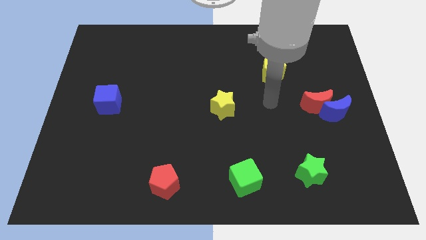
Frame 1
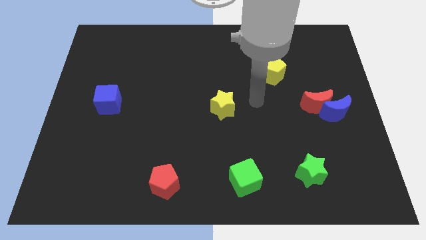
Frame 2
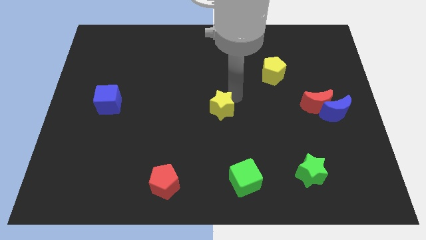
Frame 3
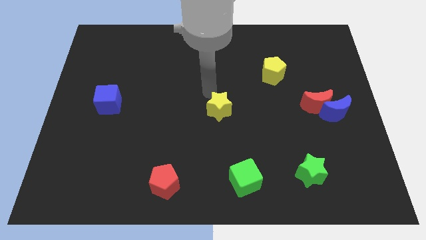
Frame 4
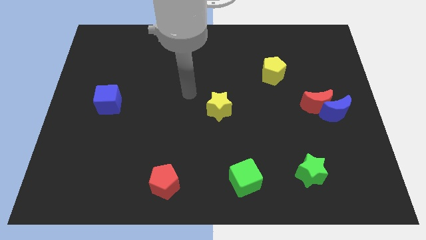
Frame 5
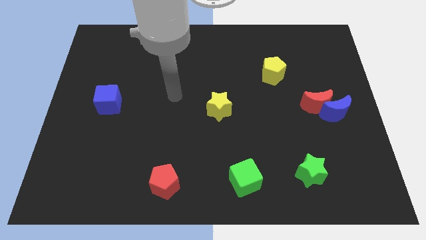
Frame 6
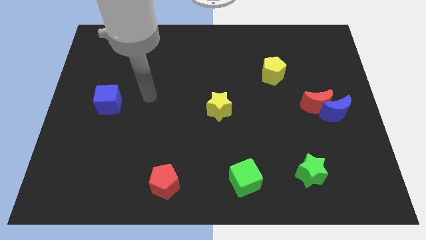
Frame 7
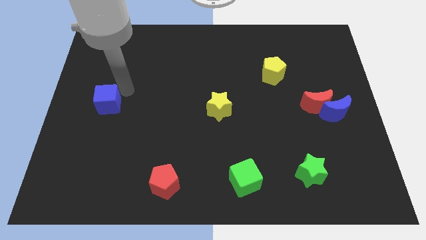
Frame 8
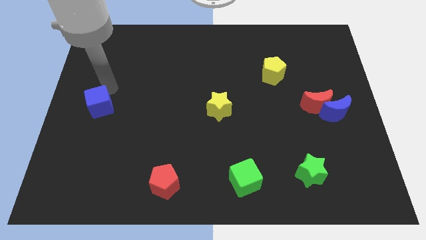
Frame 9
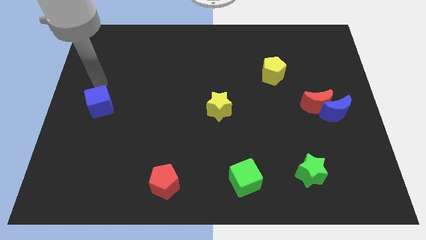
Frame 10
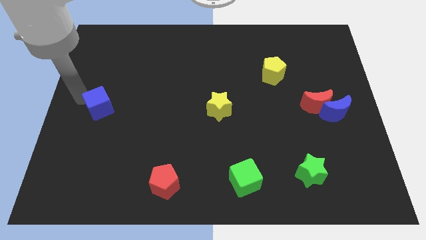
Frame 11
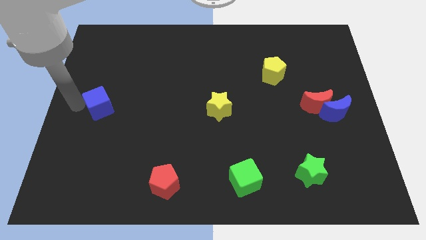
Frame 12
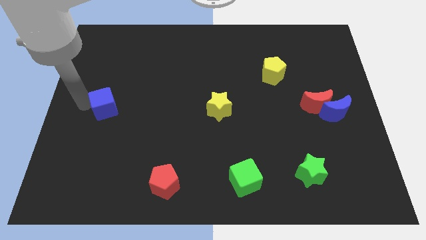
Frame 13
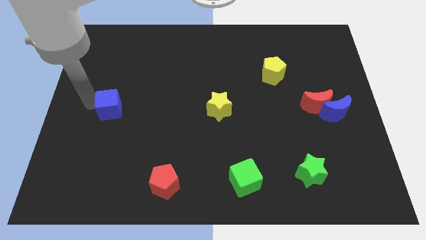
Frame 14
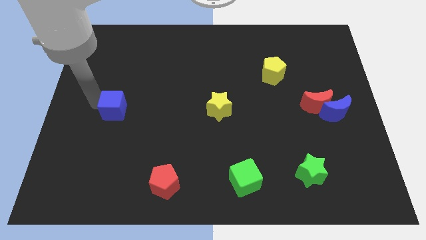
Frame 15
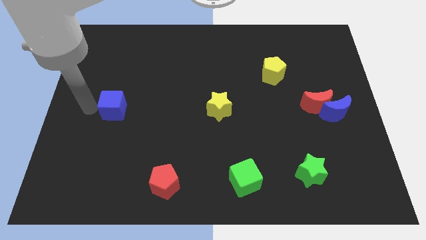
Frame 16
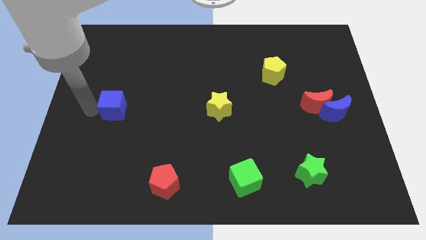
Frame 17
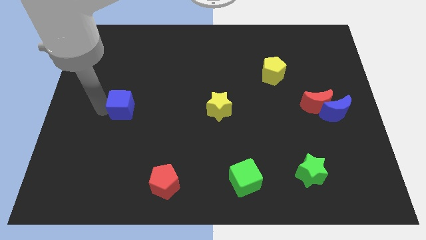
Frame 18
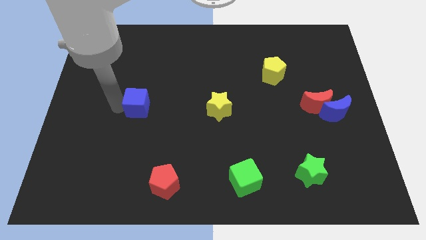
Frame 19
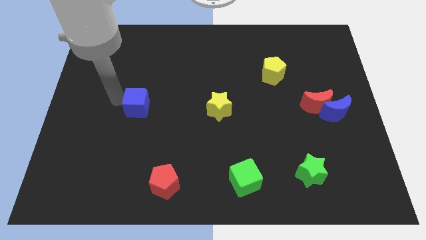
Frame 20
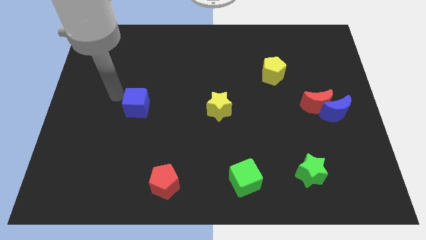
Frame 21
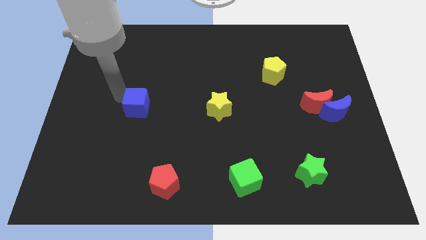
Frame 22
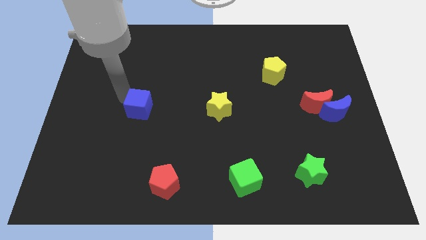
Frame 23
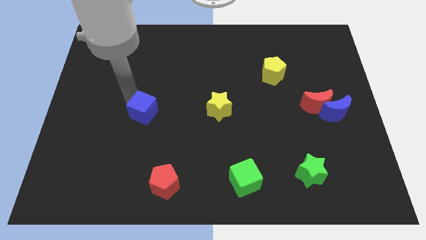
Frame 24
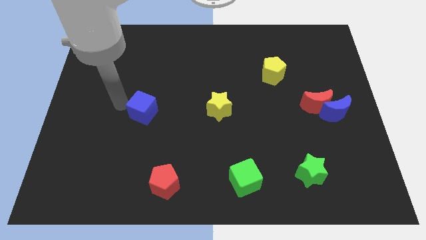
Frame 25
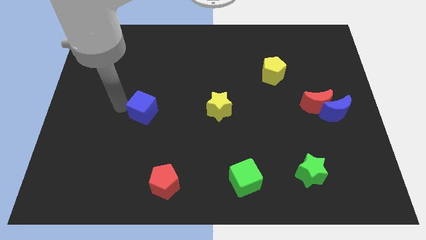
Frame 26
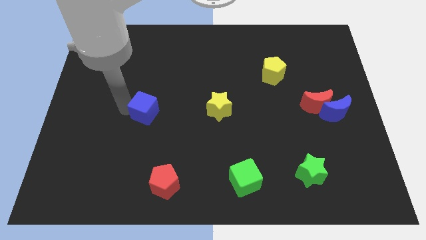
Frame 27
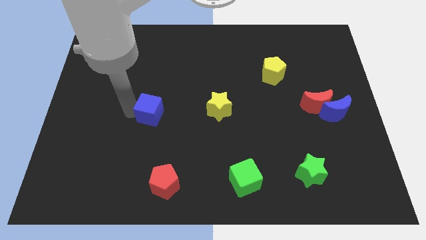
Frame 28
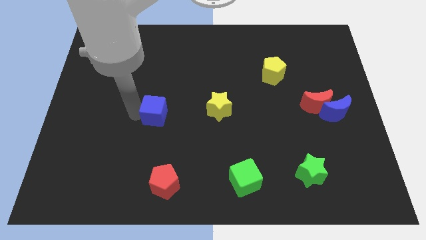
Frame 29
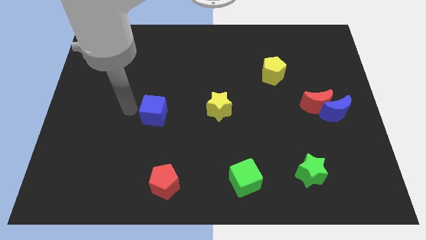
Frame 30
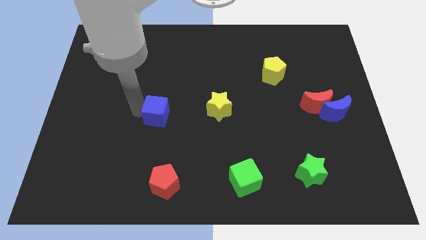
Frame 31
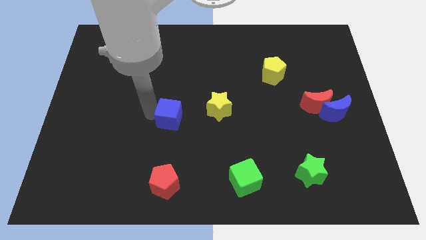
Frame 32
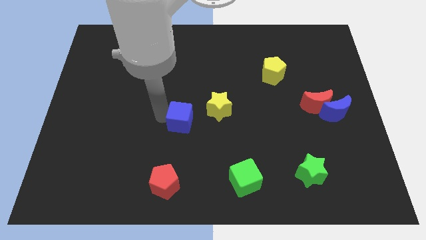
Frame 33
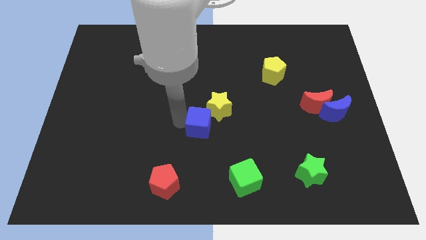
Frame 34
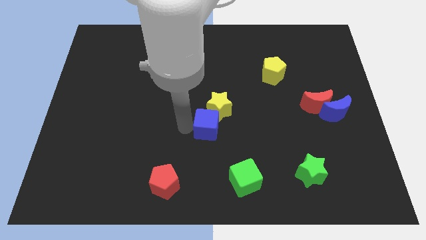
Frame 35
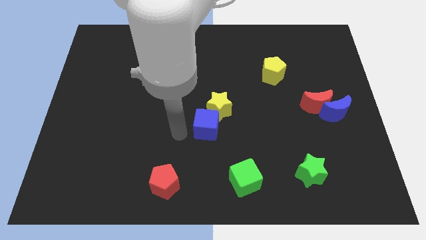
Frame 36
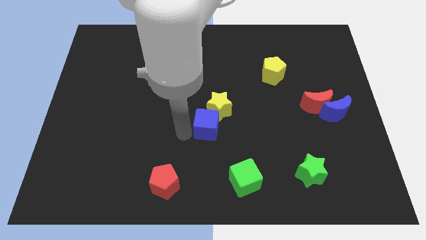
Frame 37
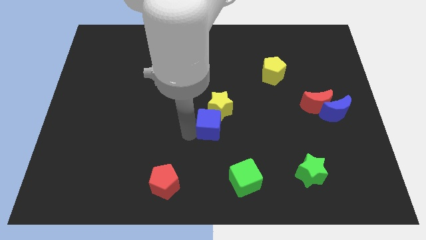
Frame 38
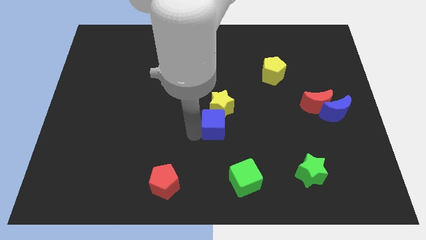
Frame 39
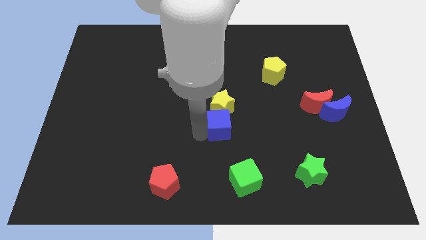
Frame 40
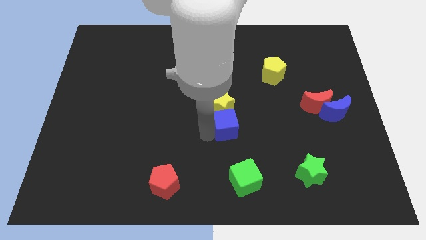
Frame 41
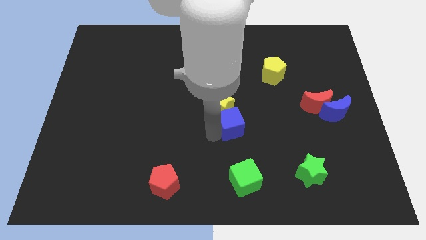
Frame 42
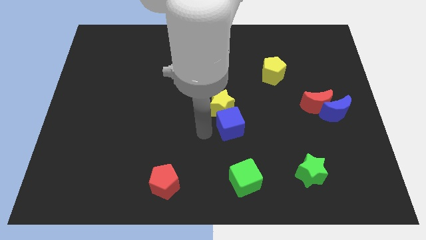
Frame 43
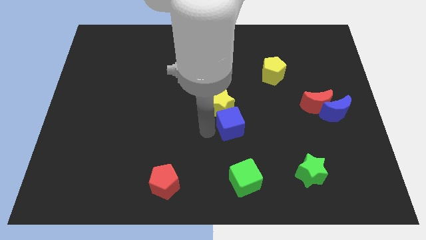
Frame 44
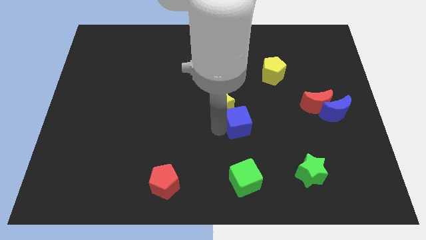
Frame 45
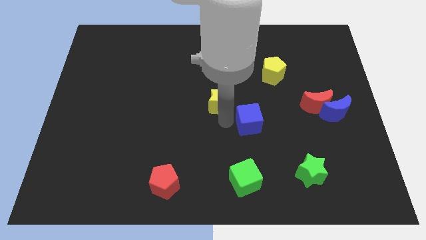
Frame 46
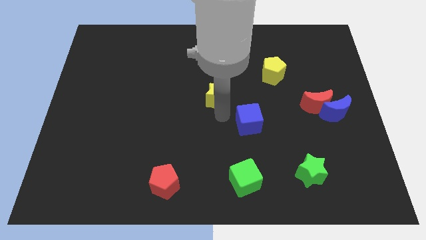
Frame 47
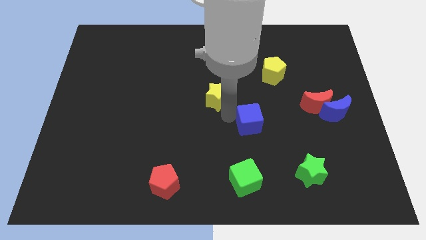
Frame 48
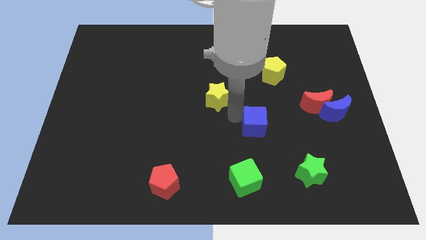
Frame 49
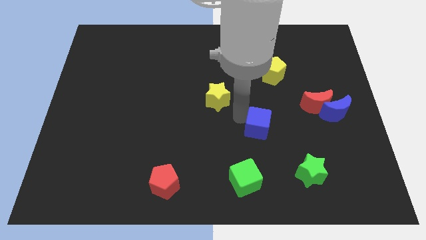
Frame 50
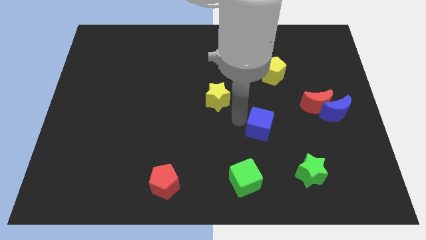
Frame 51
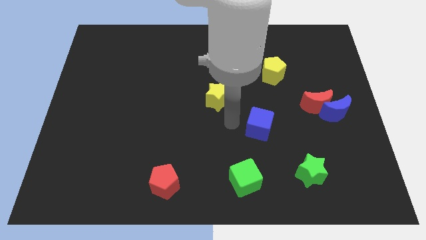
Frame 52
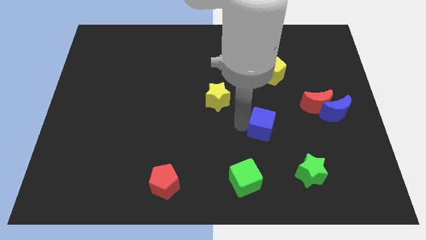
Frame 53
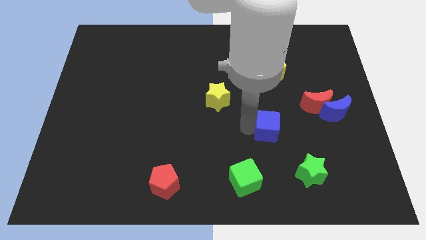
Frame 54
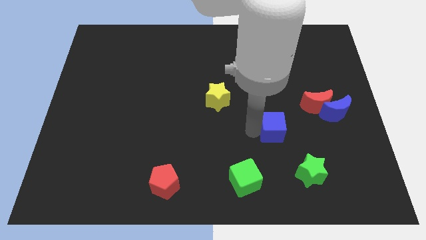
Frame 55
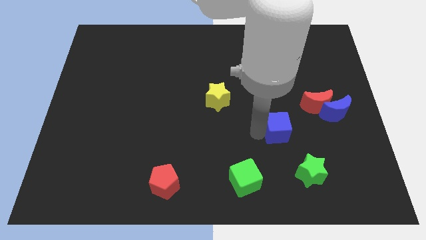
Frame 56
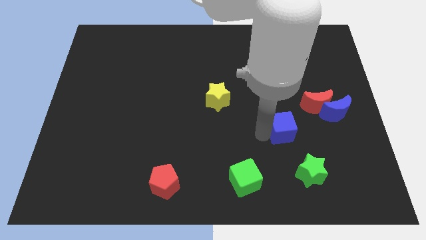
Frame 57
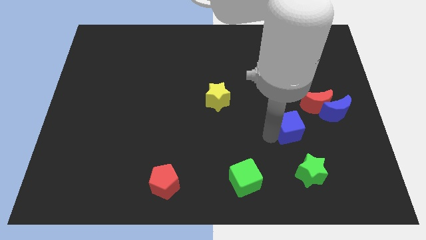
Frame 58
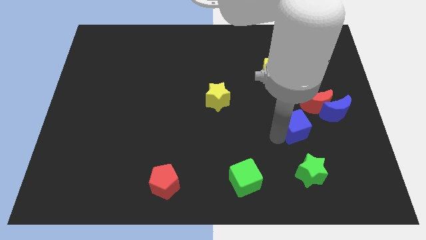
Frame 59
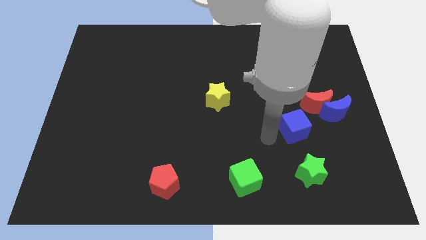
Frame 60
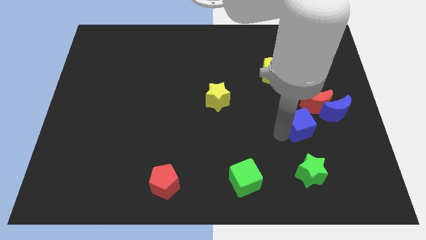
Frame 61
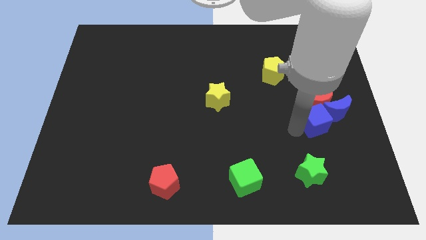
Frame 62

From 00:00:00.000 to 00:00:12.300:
push the blue cube to the blue moon
